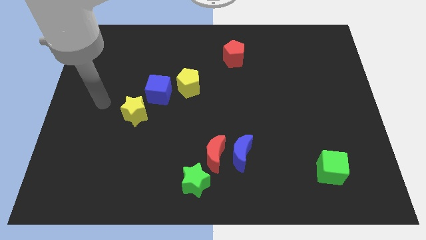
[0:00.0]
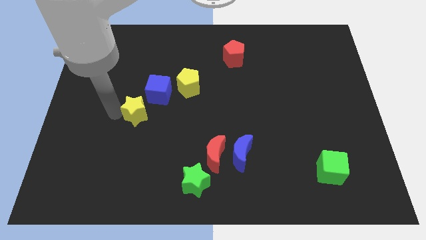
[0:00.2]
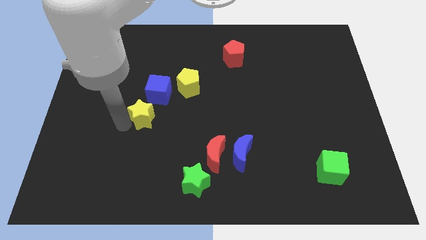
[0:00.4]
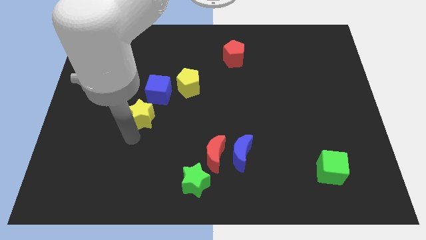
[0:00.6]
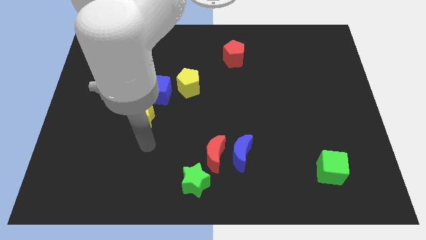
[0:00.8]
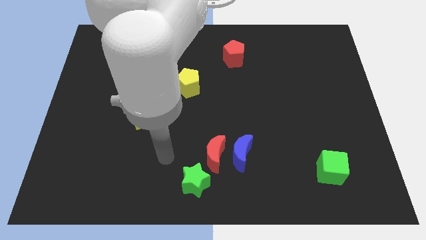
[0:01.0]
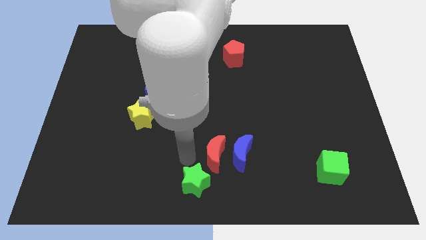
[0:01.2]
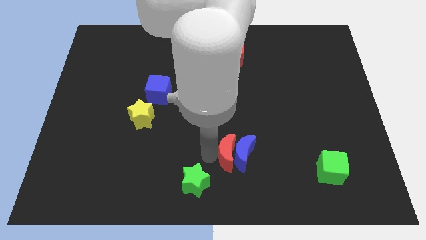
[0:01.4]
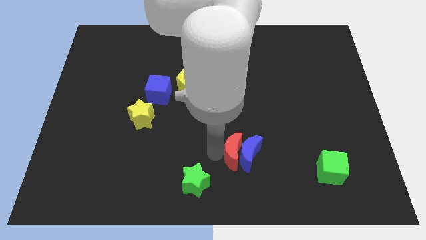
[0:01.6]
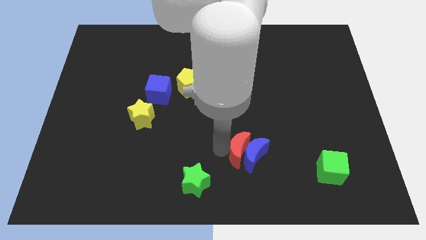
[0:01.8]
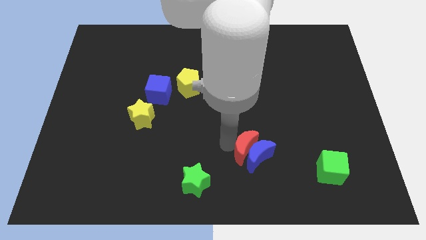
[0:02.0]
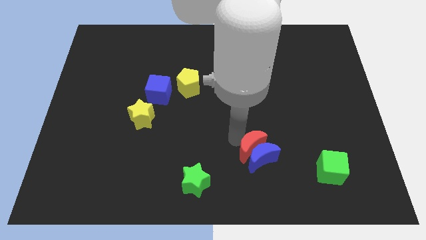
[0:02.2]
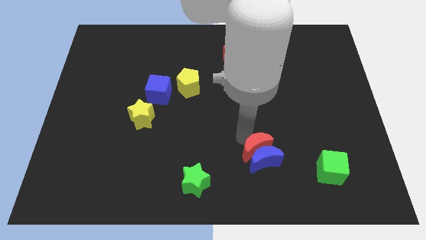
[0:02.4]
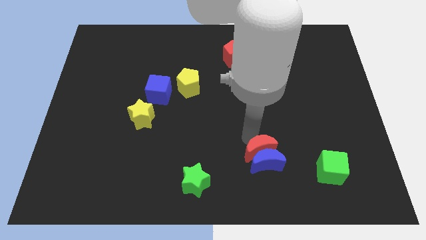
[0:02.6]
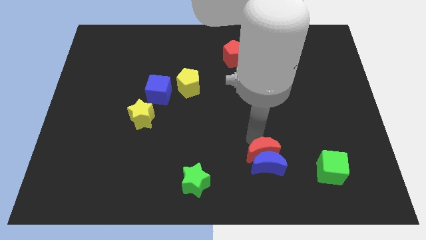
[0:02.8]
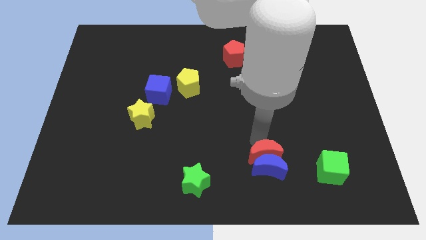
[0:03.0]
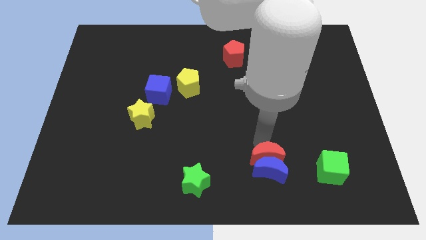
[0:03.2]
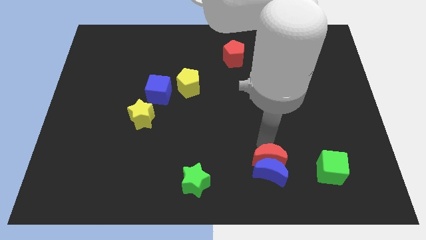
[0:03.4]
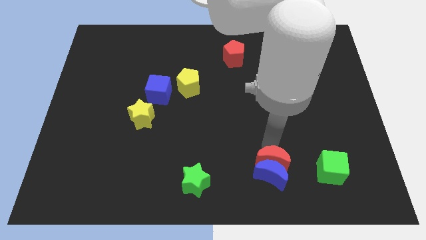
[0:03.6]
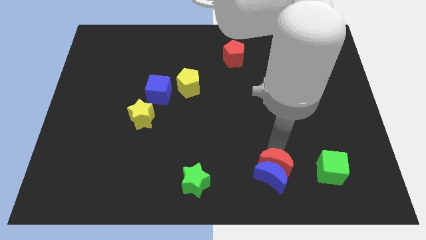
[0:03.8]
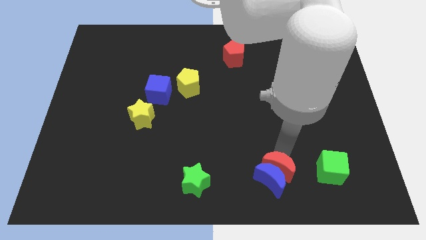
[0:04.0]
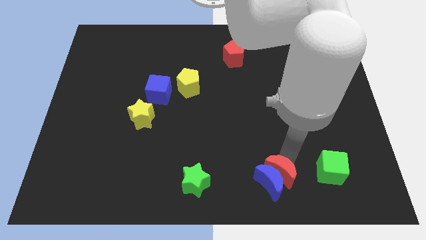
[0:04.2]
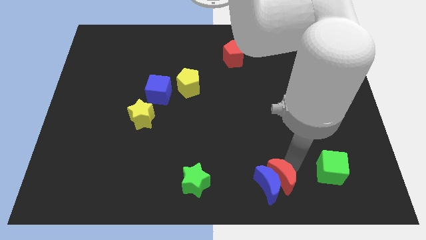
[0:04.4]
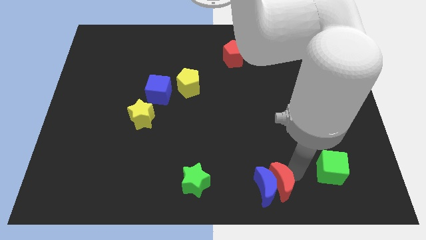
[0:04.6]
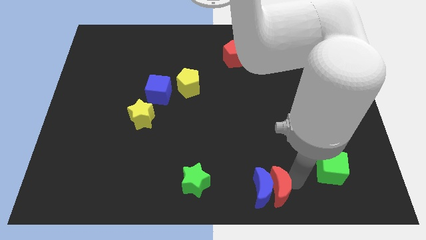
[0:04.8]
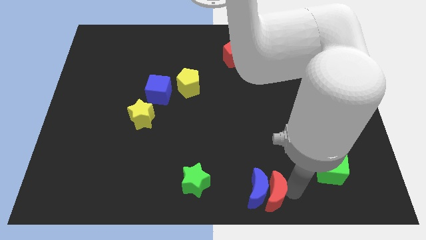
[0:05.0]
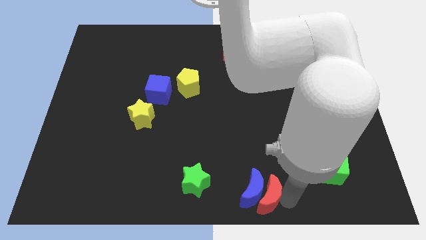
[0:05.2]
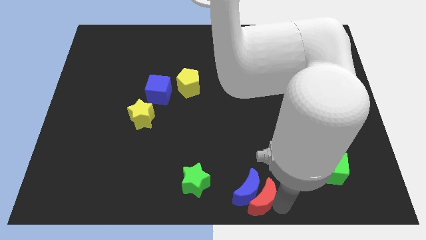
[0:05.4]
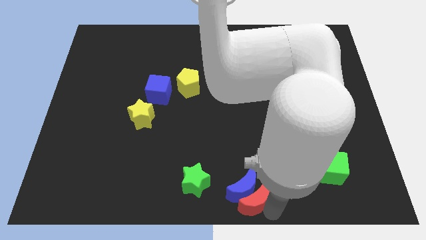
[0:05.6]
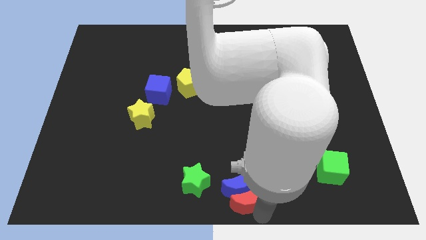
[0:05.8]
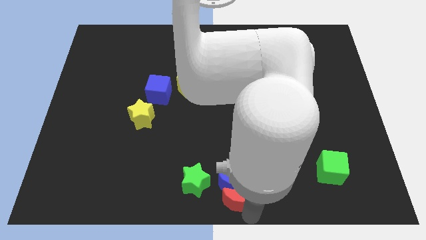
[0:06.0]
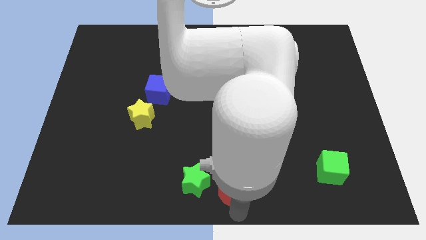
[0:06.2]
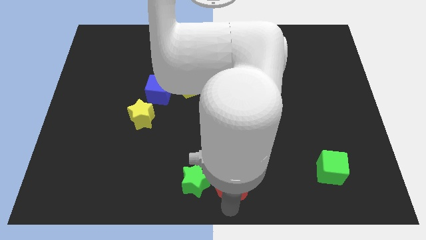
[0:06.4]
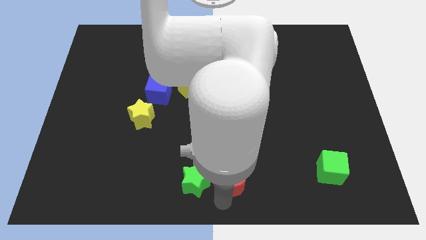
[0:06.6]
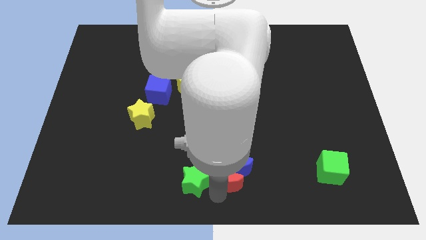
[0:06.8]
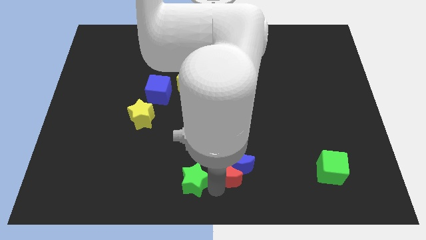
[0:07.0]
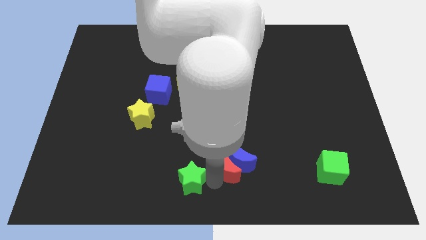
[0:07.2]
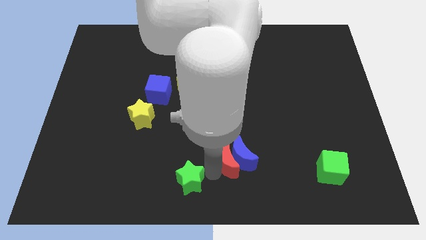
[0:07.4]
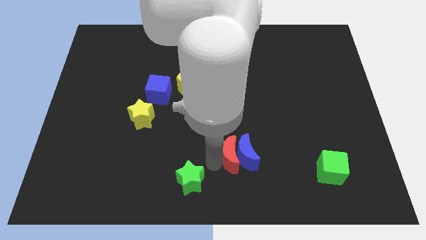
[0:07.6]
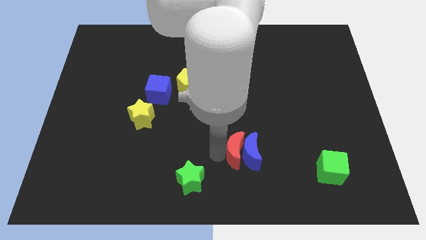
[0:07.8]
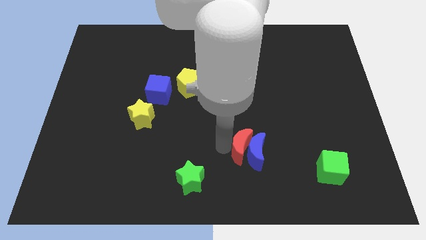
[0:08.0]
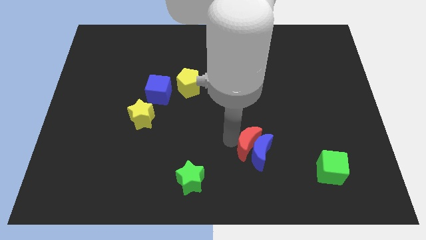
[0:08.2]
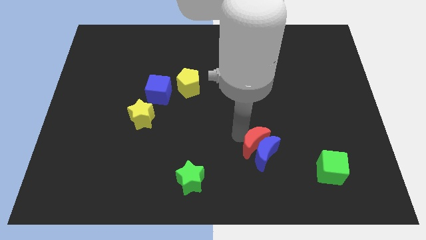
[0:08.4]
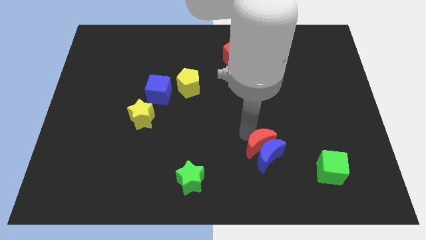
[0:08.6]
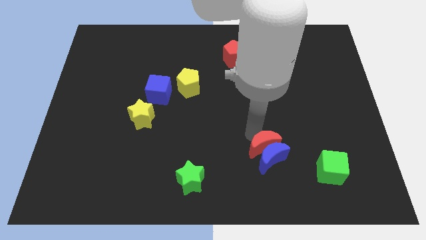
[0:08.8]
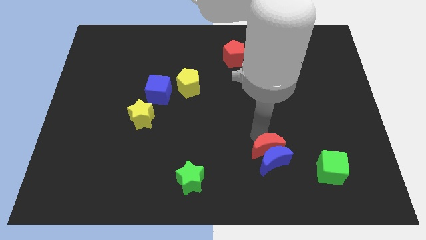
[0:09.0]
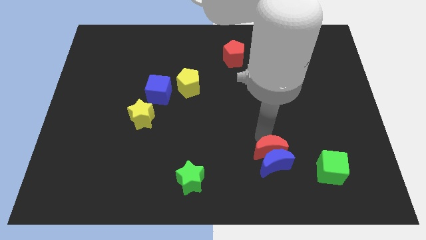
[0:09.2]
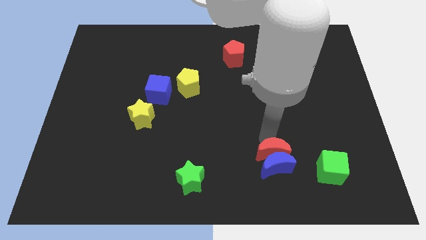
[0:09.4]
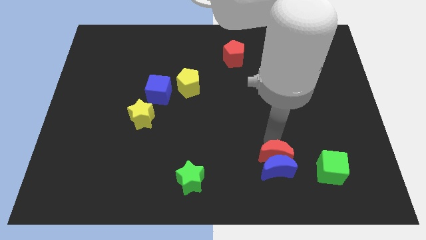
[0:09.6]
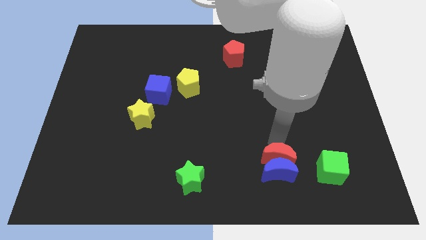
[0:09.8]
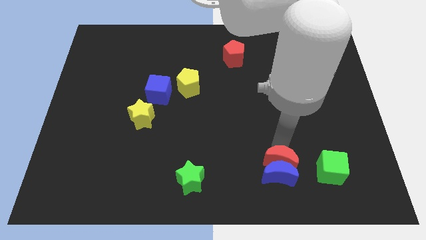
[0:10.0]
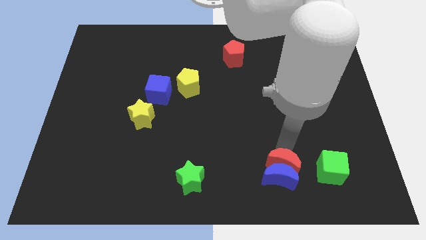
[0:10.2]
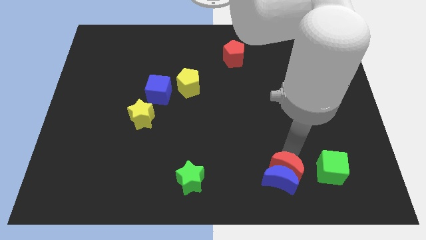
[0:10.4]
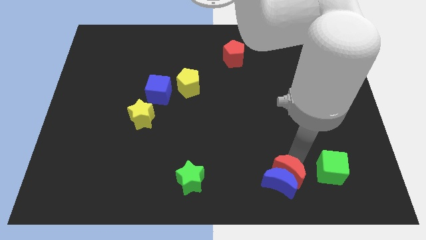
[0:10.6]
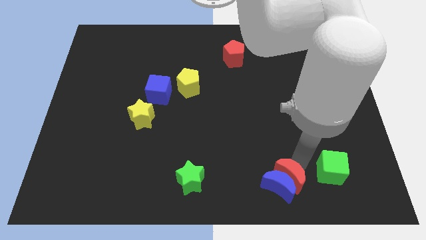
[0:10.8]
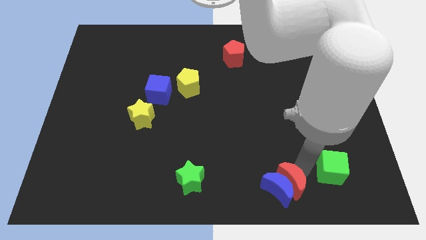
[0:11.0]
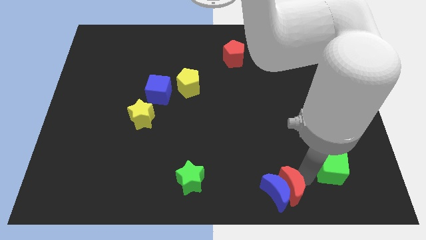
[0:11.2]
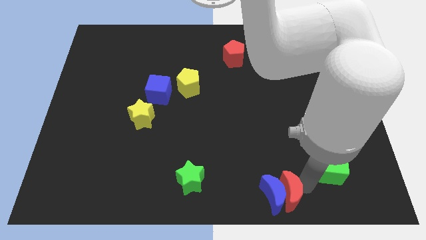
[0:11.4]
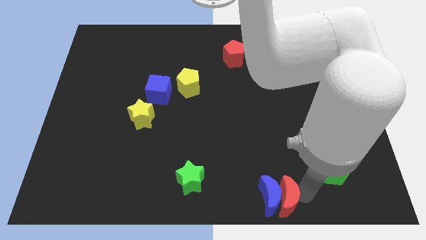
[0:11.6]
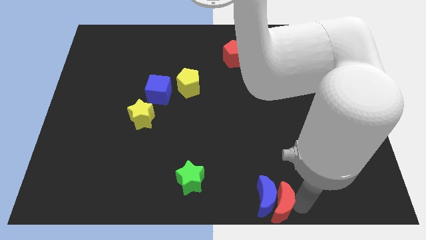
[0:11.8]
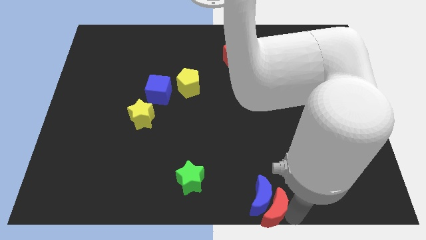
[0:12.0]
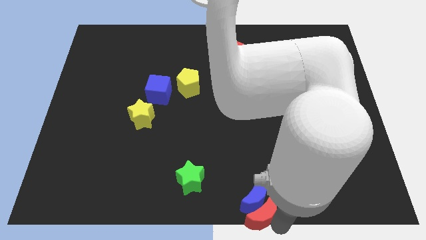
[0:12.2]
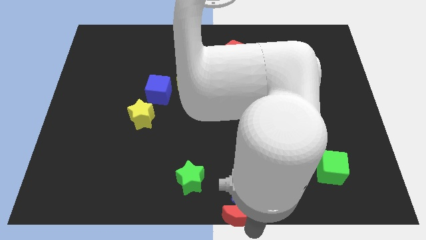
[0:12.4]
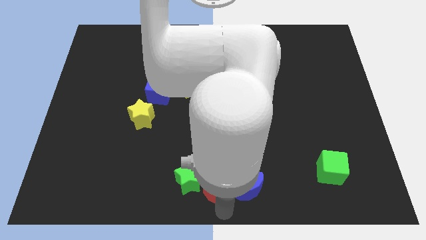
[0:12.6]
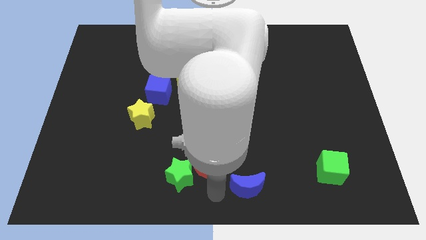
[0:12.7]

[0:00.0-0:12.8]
move the blue moon away from the red moon

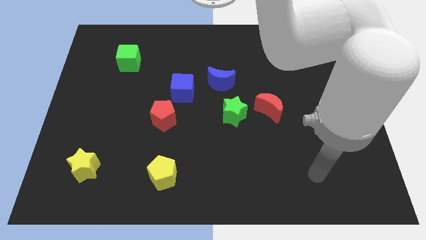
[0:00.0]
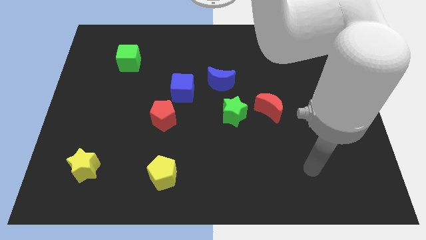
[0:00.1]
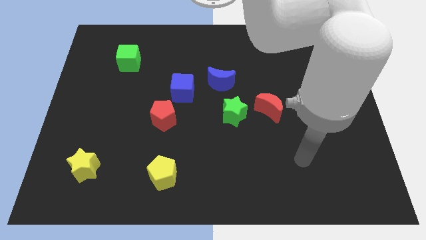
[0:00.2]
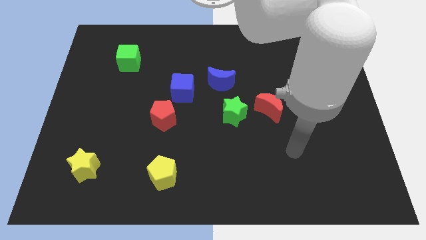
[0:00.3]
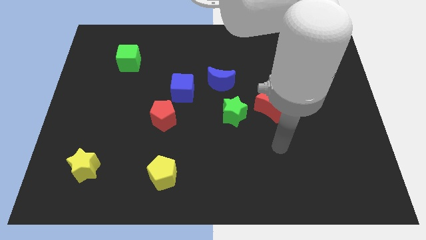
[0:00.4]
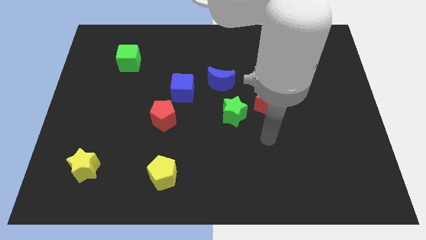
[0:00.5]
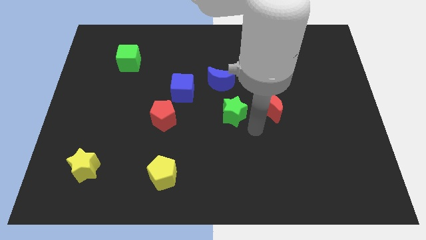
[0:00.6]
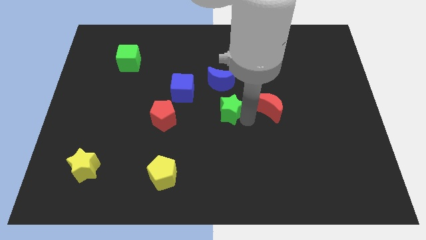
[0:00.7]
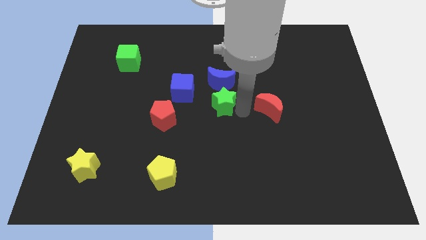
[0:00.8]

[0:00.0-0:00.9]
separate the red moon from the green star

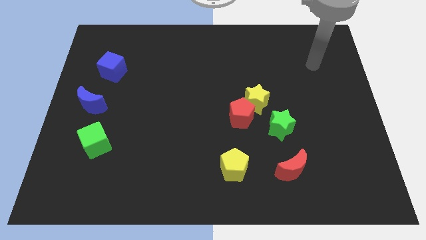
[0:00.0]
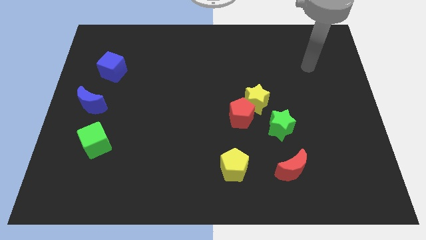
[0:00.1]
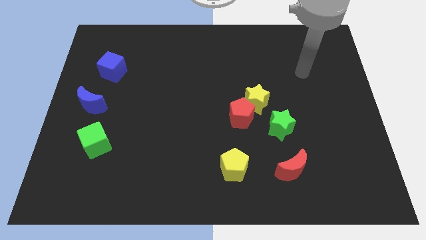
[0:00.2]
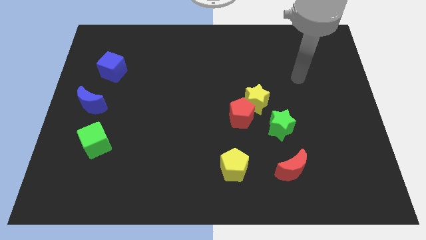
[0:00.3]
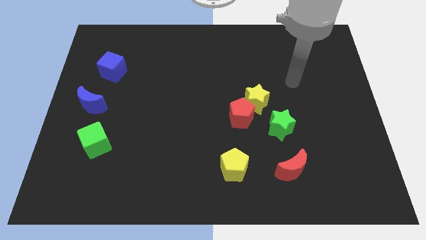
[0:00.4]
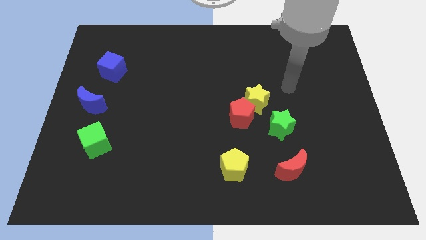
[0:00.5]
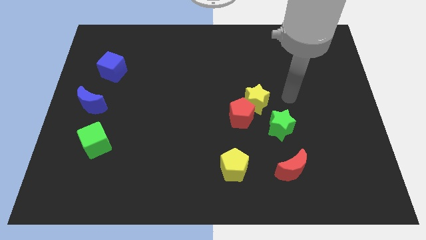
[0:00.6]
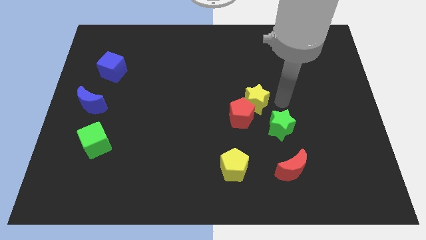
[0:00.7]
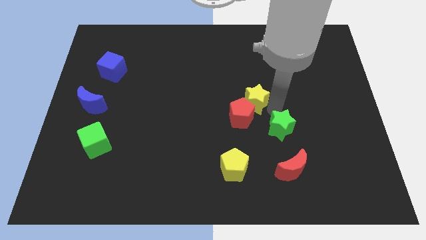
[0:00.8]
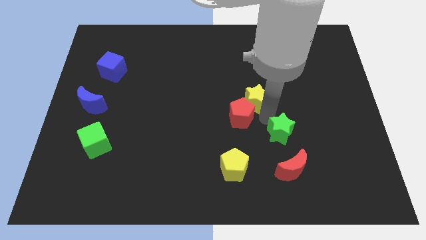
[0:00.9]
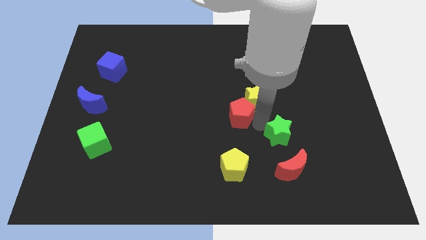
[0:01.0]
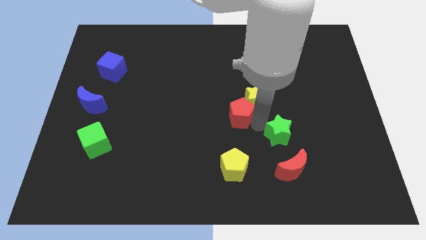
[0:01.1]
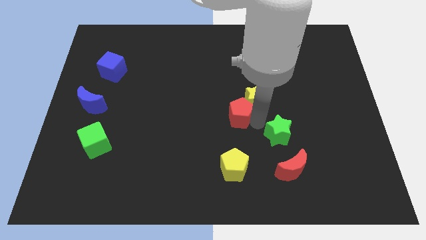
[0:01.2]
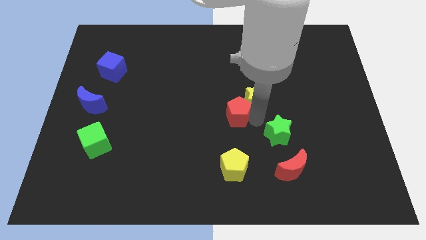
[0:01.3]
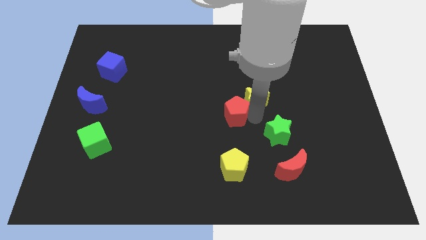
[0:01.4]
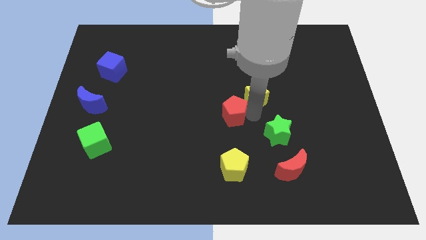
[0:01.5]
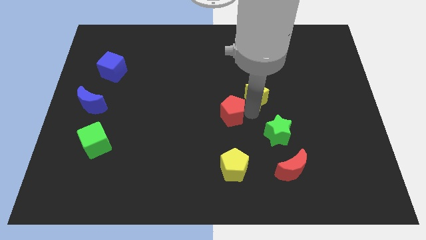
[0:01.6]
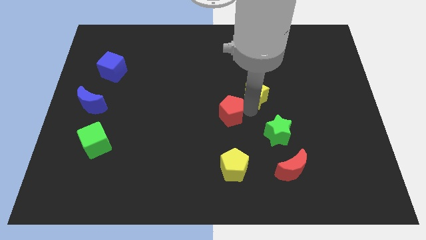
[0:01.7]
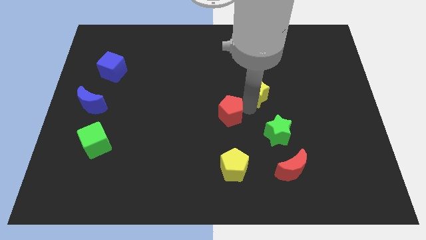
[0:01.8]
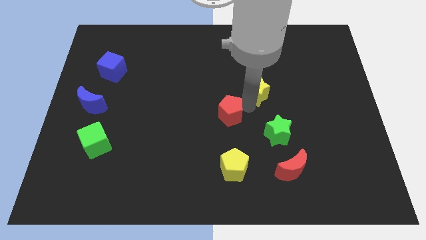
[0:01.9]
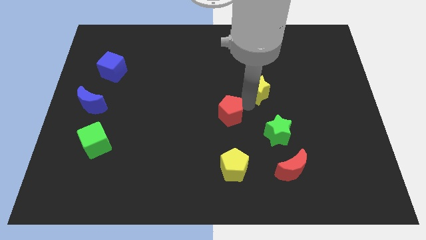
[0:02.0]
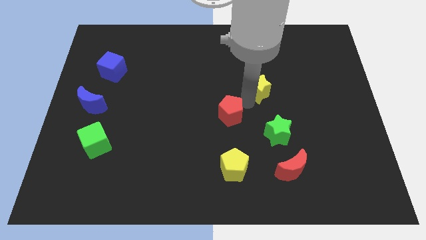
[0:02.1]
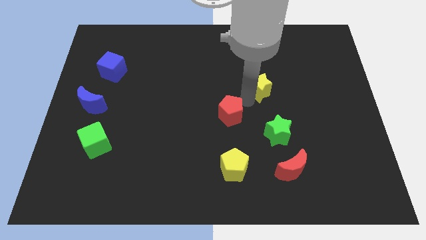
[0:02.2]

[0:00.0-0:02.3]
separate the yellow star from the red pentagon and green star
